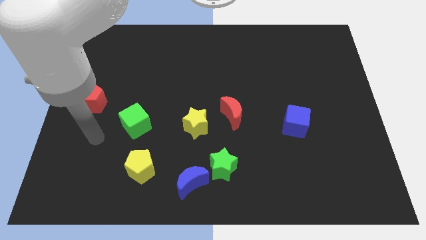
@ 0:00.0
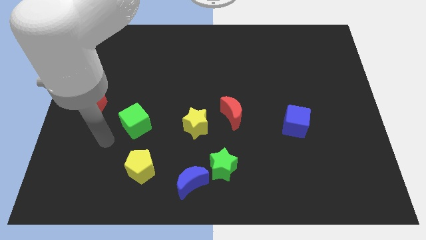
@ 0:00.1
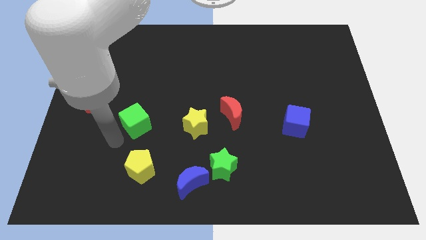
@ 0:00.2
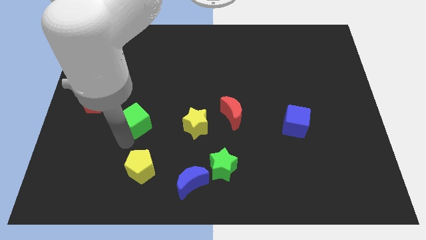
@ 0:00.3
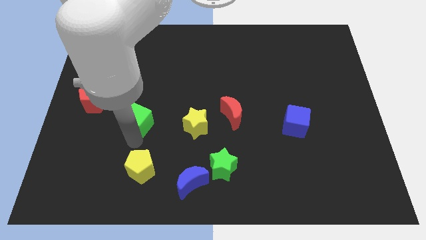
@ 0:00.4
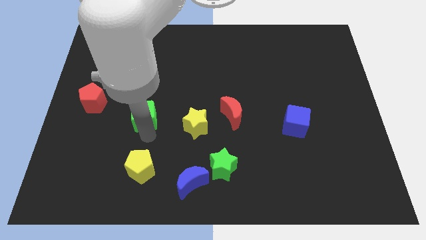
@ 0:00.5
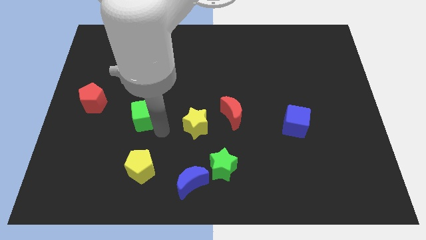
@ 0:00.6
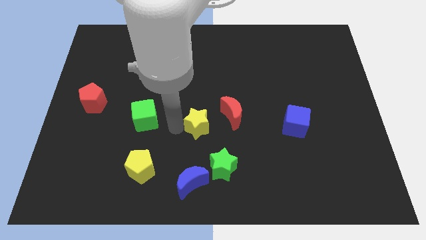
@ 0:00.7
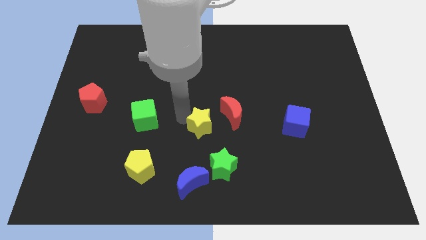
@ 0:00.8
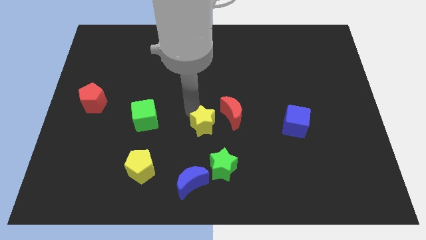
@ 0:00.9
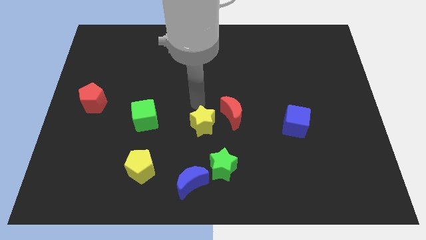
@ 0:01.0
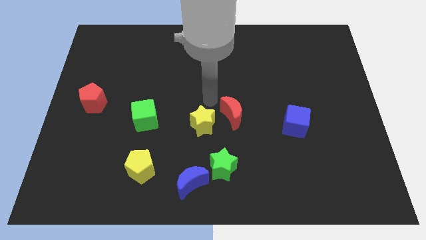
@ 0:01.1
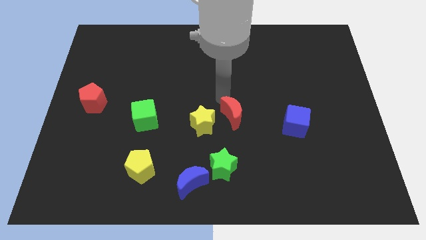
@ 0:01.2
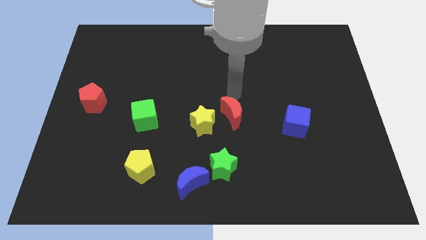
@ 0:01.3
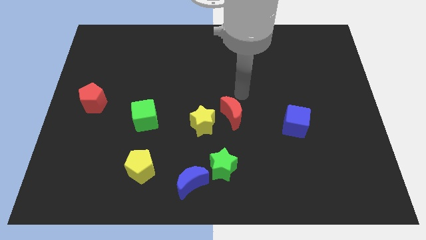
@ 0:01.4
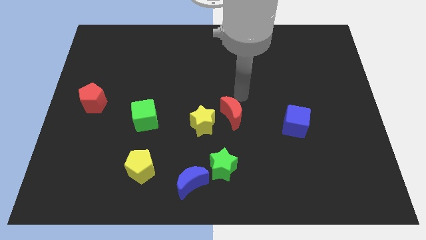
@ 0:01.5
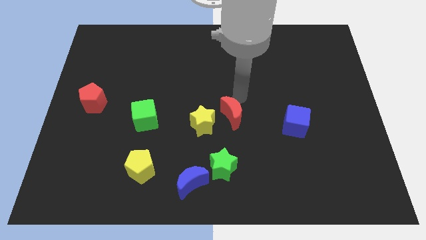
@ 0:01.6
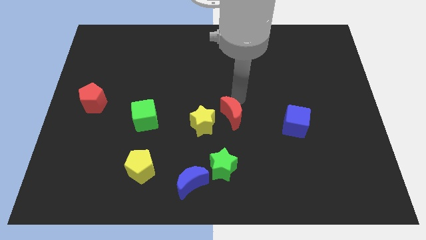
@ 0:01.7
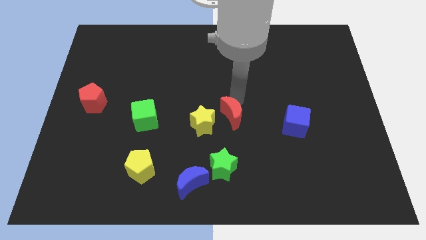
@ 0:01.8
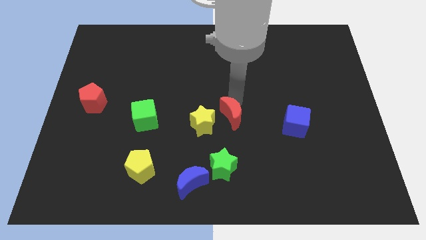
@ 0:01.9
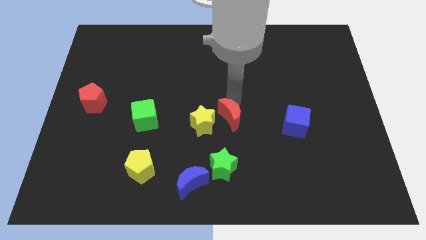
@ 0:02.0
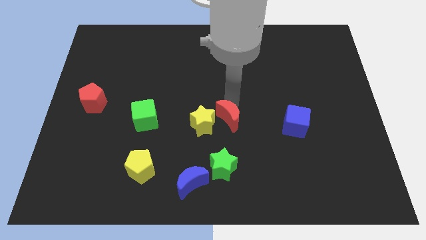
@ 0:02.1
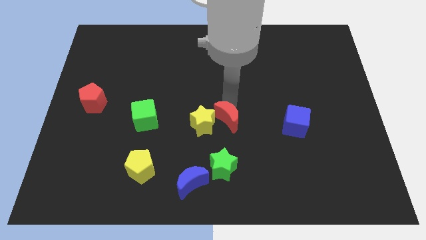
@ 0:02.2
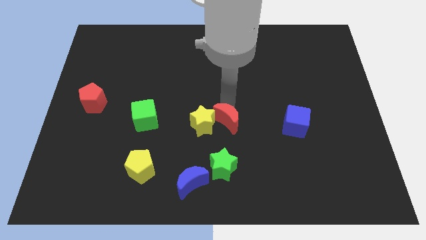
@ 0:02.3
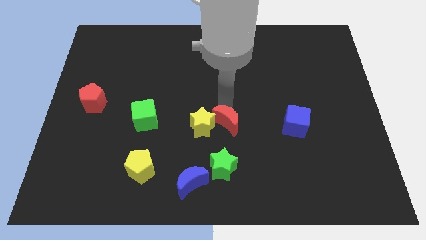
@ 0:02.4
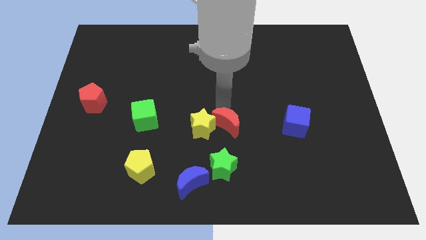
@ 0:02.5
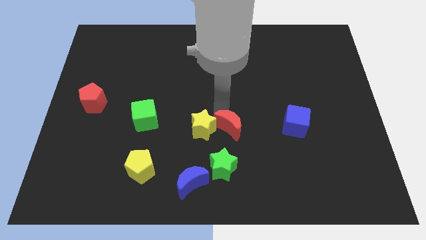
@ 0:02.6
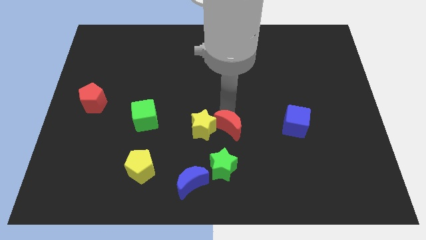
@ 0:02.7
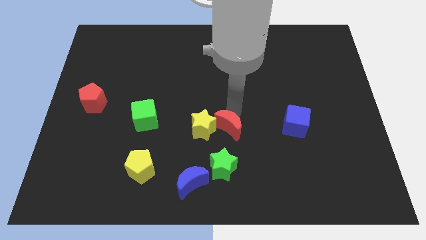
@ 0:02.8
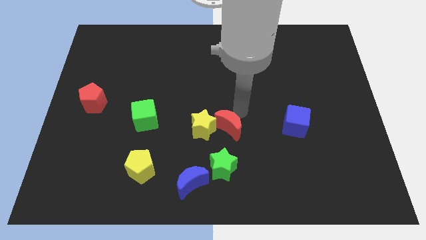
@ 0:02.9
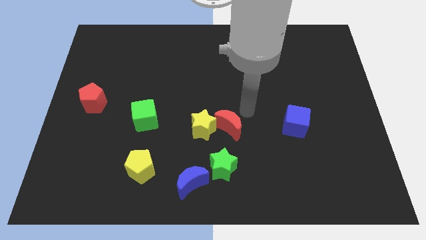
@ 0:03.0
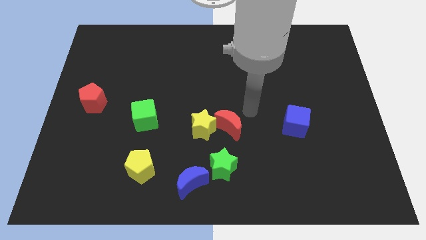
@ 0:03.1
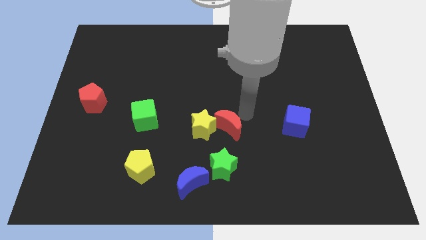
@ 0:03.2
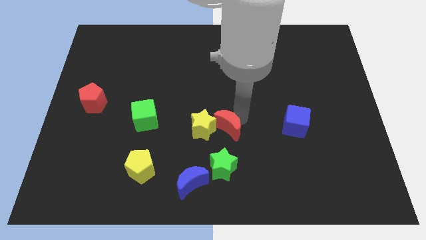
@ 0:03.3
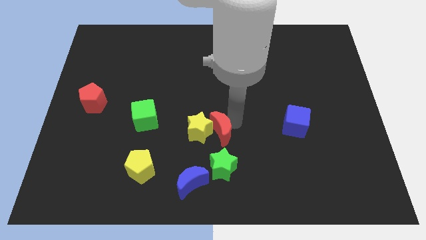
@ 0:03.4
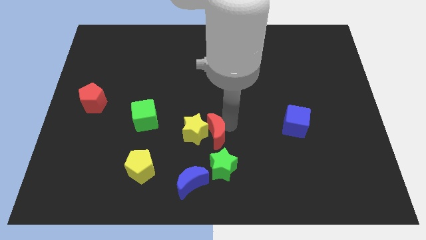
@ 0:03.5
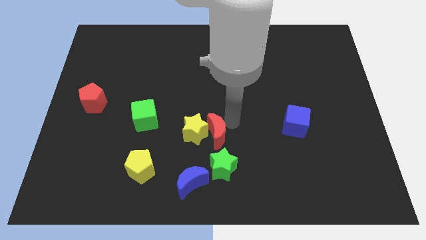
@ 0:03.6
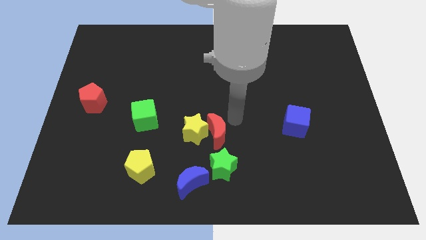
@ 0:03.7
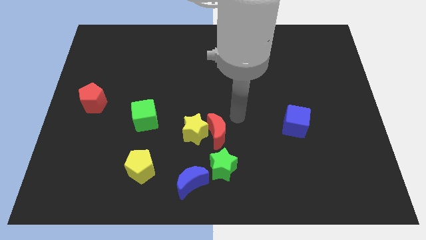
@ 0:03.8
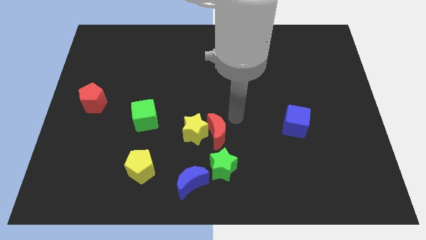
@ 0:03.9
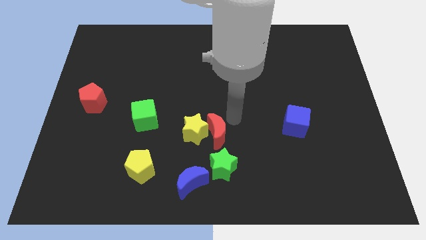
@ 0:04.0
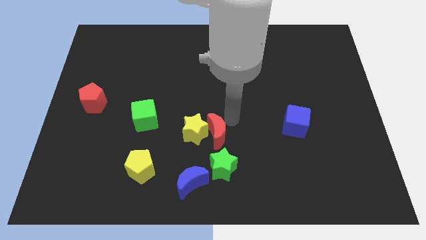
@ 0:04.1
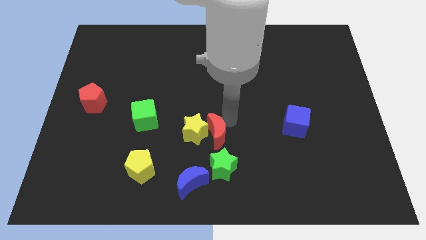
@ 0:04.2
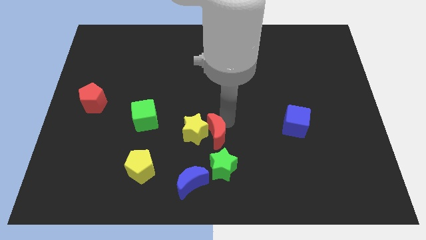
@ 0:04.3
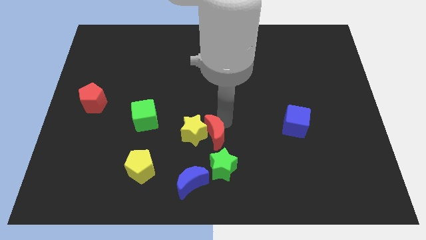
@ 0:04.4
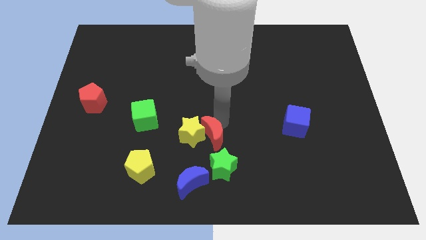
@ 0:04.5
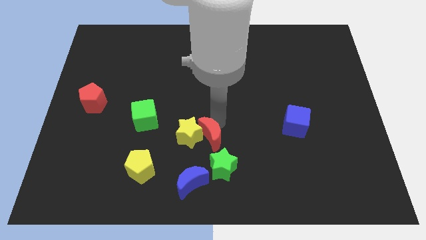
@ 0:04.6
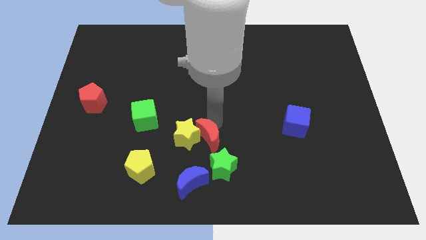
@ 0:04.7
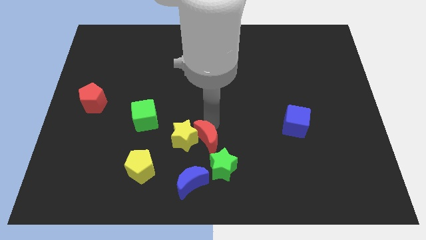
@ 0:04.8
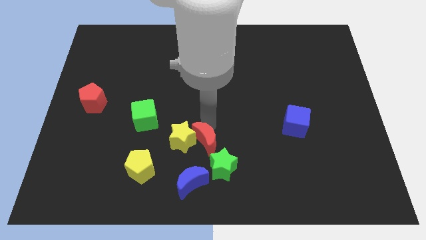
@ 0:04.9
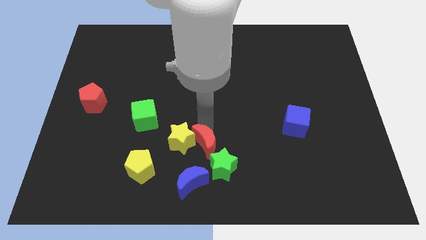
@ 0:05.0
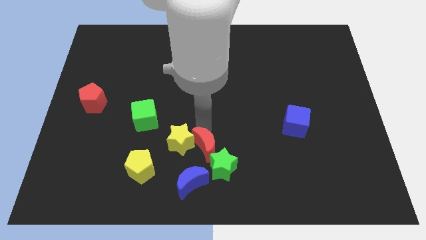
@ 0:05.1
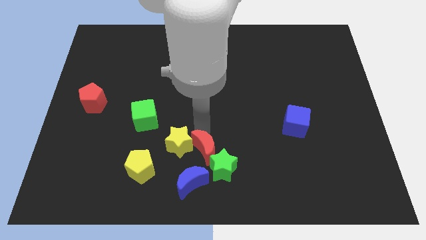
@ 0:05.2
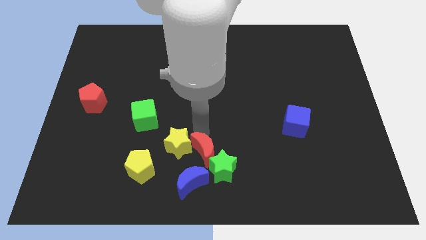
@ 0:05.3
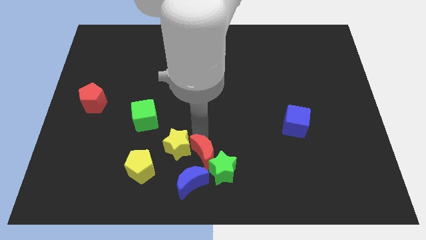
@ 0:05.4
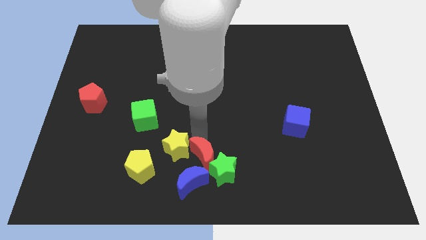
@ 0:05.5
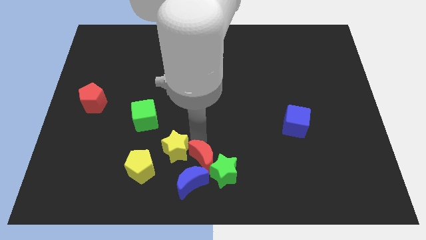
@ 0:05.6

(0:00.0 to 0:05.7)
slide the red moon towards the blue moon

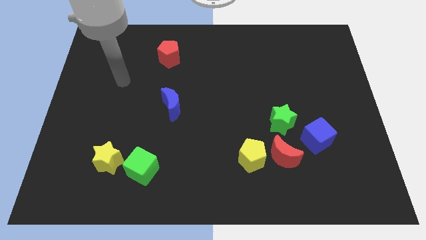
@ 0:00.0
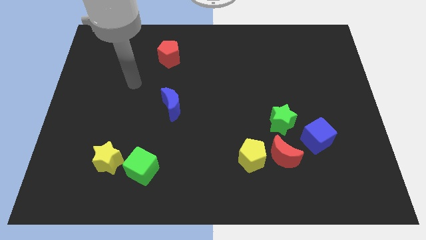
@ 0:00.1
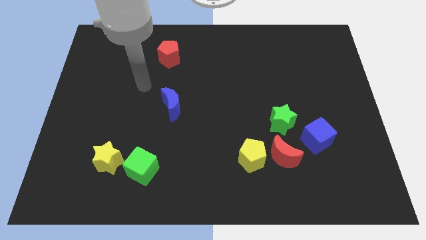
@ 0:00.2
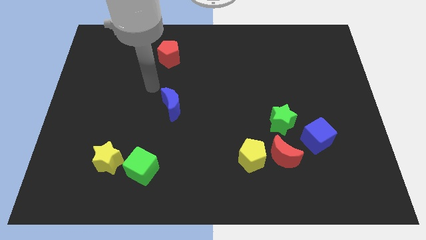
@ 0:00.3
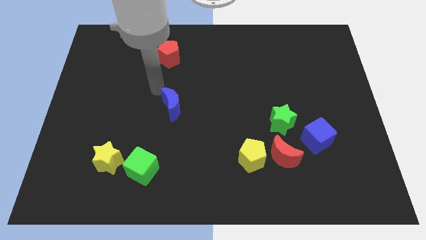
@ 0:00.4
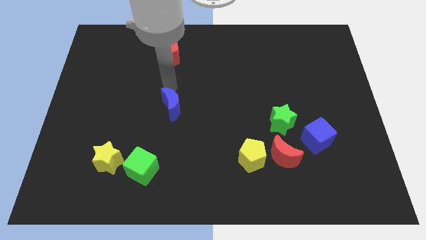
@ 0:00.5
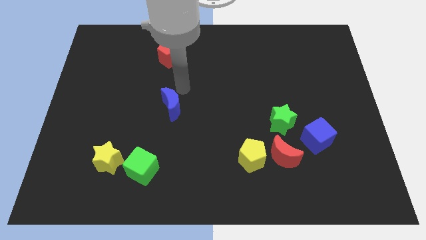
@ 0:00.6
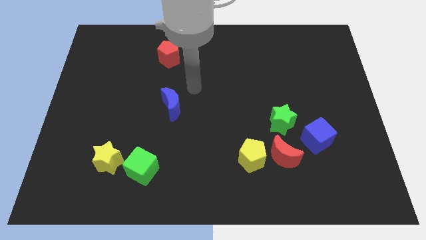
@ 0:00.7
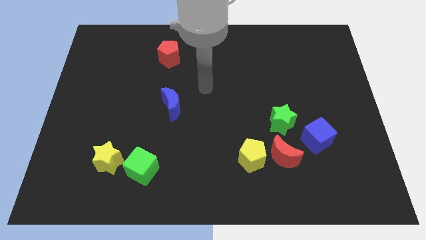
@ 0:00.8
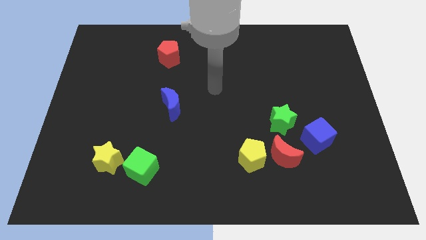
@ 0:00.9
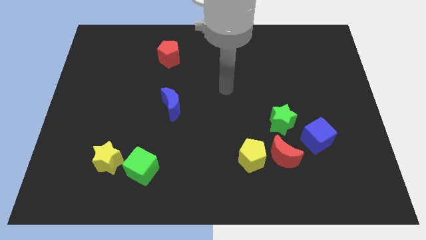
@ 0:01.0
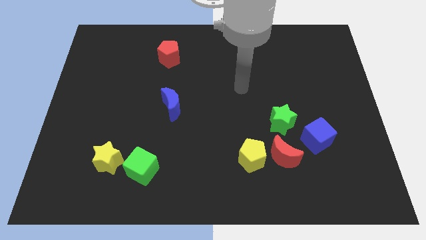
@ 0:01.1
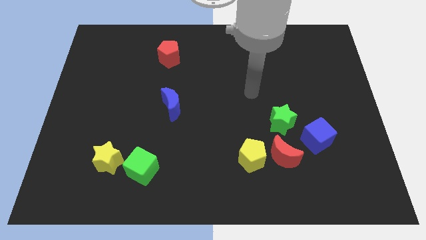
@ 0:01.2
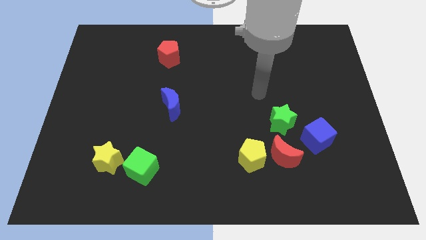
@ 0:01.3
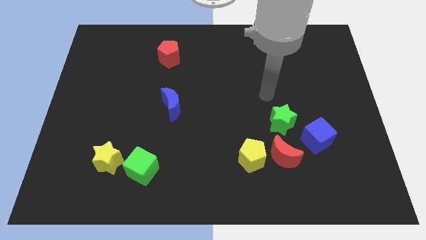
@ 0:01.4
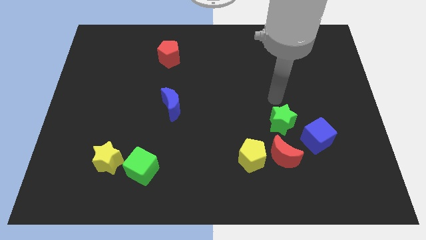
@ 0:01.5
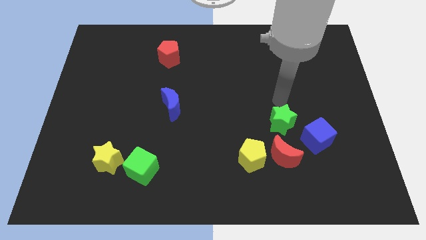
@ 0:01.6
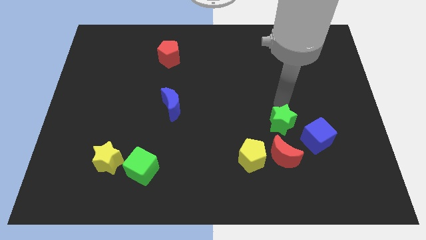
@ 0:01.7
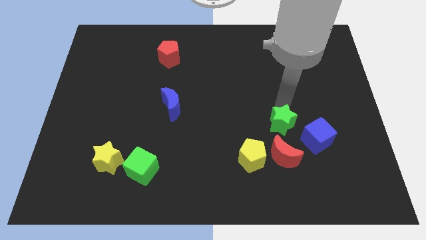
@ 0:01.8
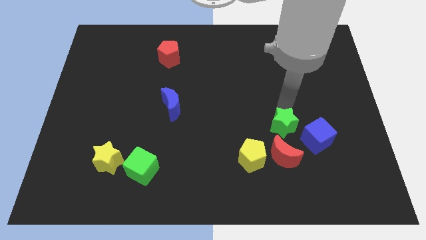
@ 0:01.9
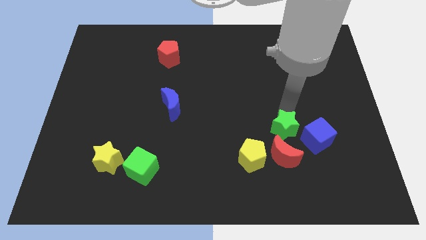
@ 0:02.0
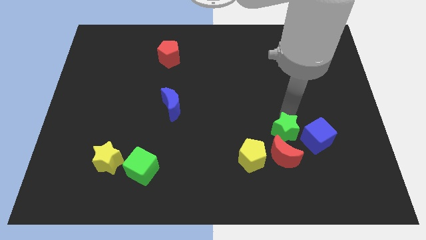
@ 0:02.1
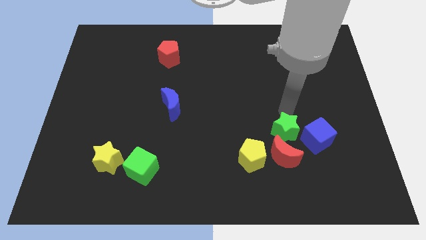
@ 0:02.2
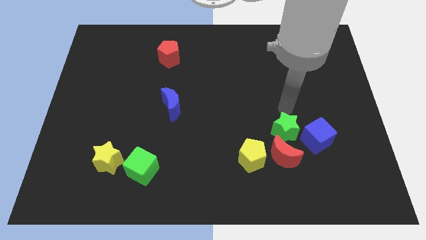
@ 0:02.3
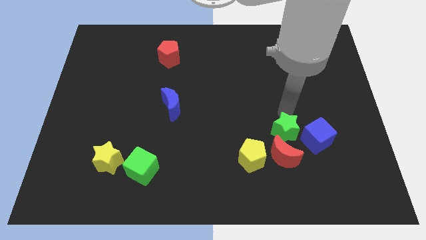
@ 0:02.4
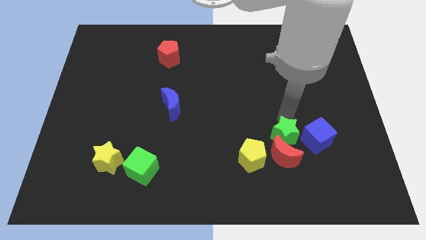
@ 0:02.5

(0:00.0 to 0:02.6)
put the green star towards the red moon
